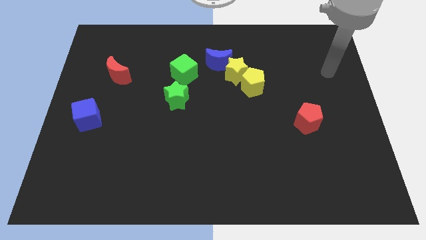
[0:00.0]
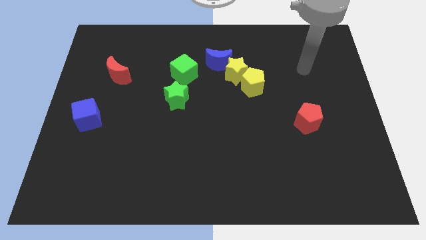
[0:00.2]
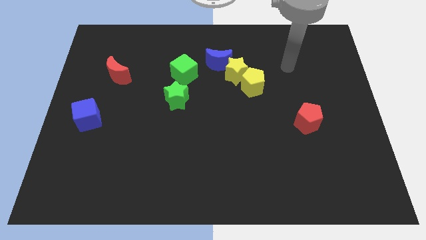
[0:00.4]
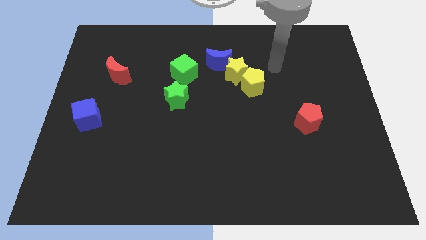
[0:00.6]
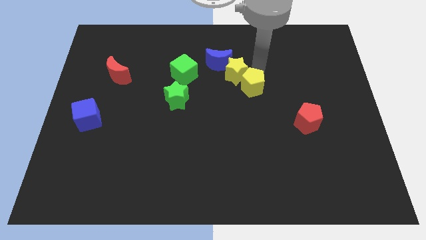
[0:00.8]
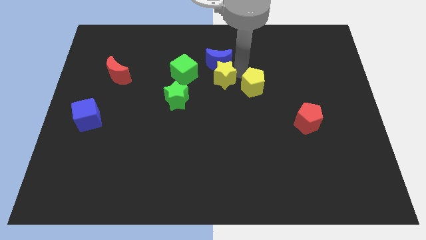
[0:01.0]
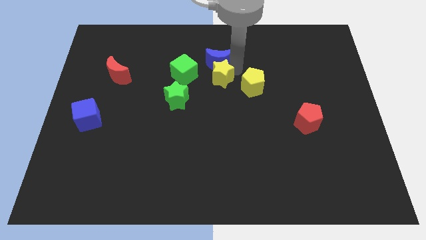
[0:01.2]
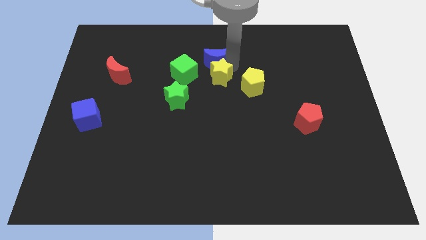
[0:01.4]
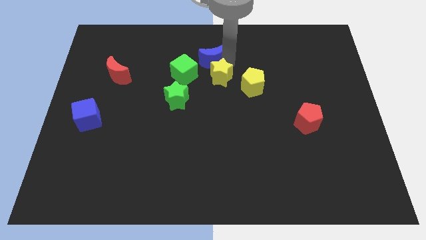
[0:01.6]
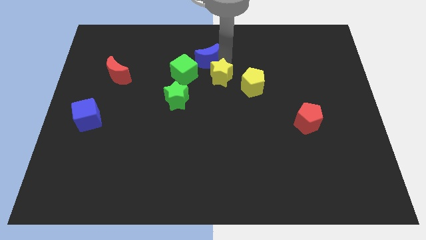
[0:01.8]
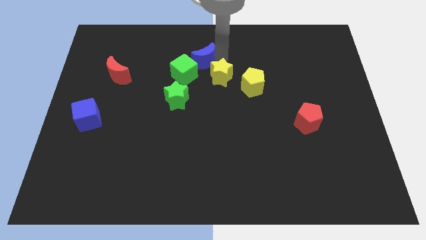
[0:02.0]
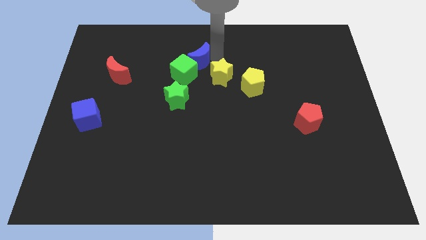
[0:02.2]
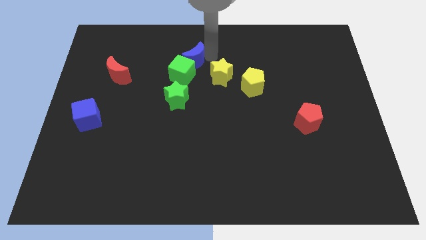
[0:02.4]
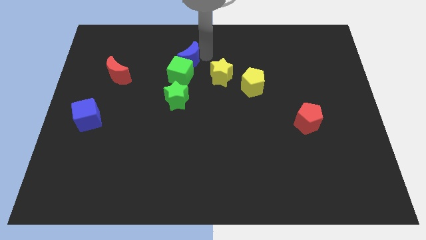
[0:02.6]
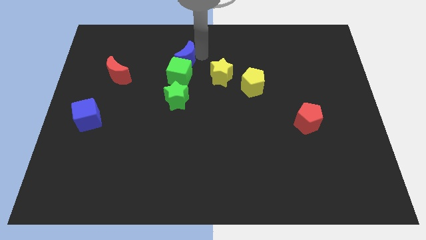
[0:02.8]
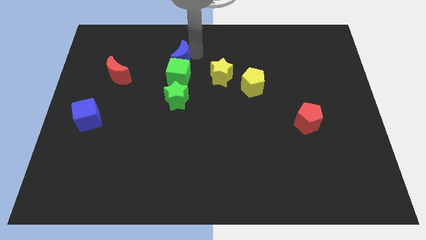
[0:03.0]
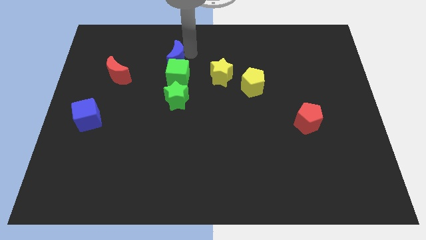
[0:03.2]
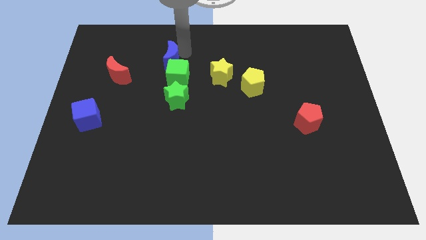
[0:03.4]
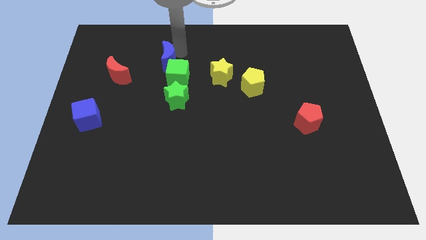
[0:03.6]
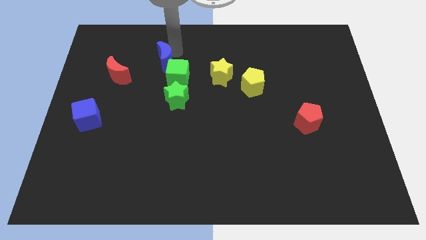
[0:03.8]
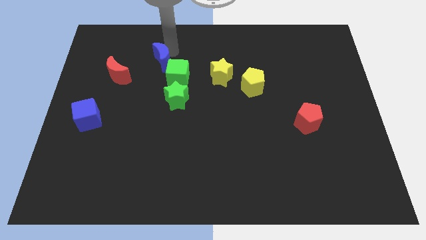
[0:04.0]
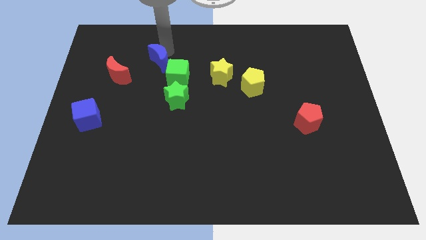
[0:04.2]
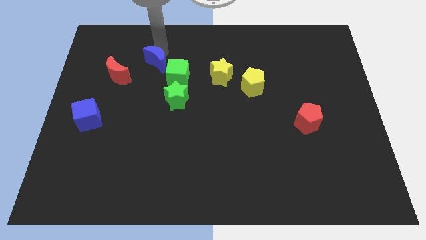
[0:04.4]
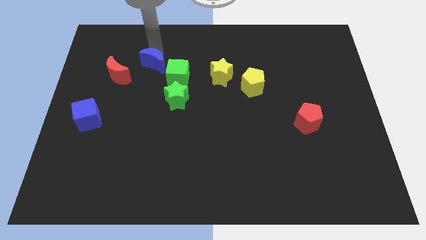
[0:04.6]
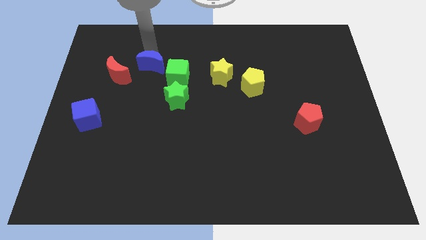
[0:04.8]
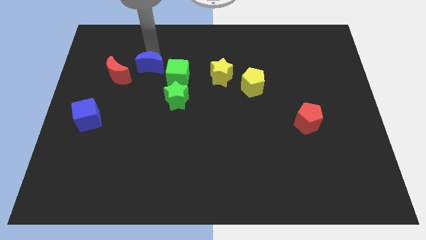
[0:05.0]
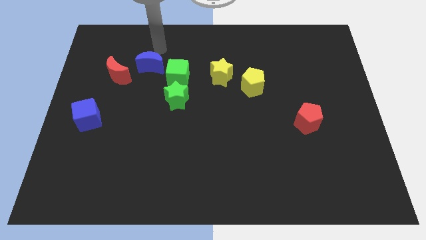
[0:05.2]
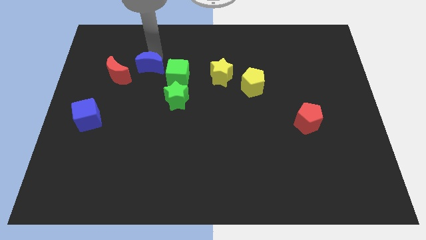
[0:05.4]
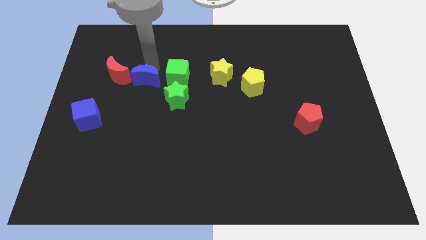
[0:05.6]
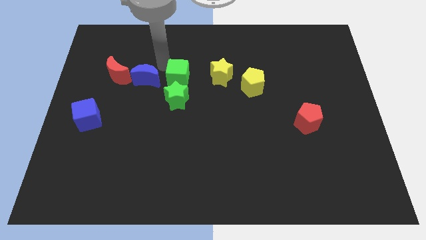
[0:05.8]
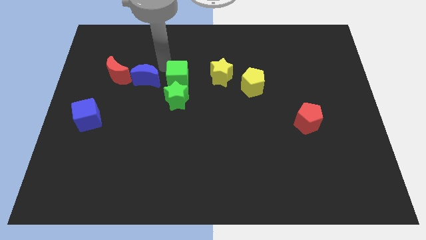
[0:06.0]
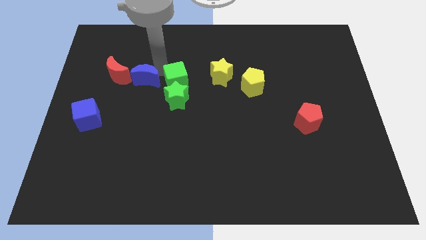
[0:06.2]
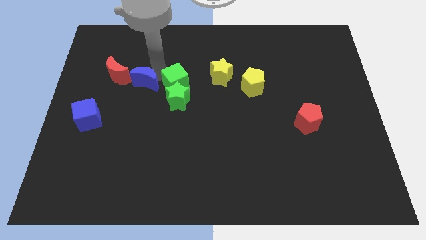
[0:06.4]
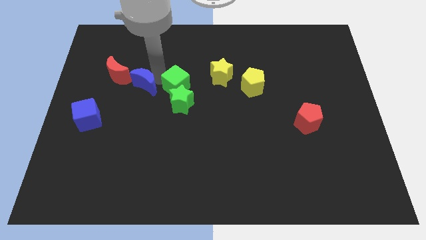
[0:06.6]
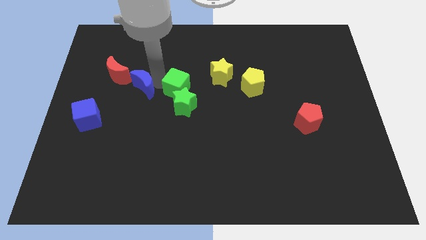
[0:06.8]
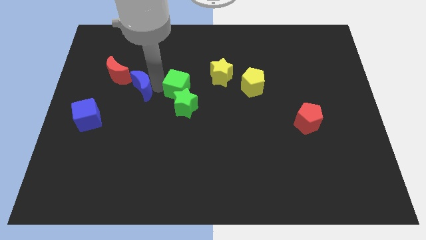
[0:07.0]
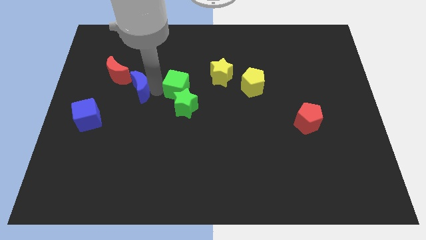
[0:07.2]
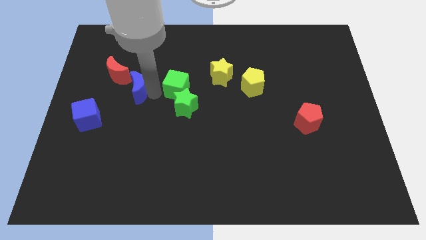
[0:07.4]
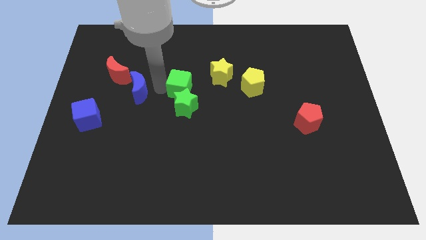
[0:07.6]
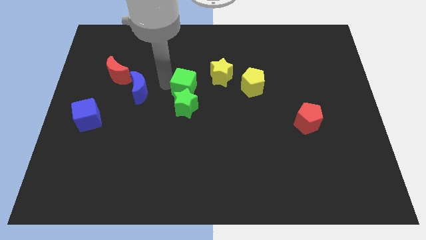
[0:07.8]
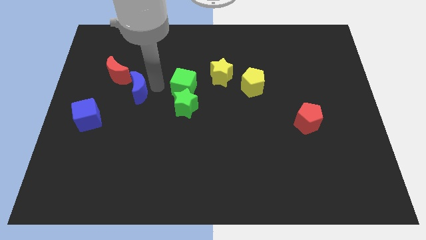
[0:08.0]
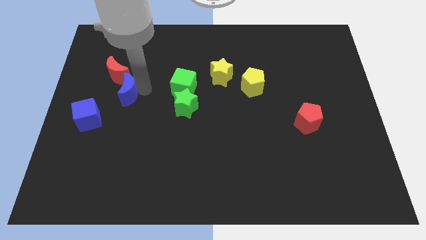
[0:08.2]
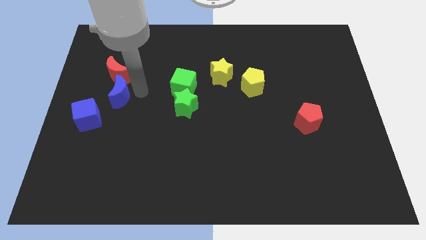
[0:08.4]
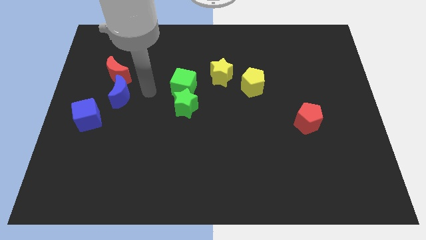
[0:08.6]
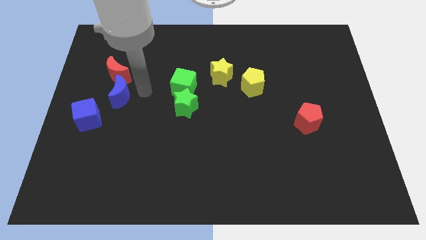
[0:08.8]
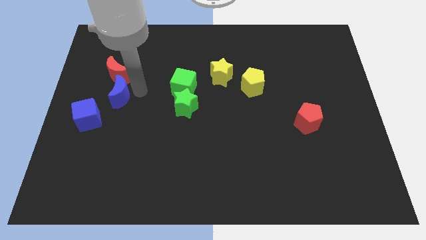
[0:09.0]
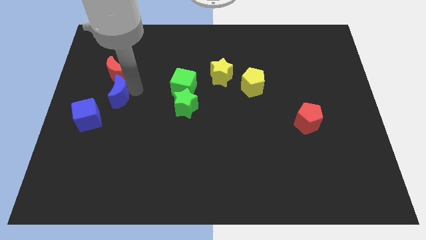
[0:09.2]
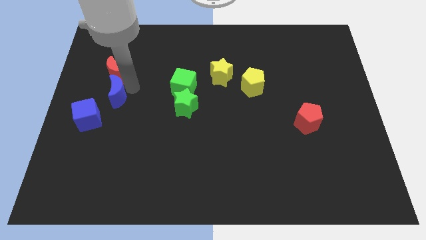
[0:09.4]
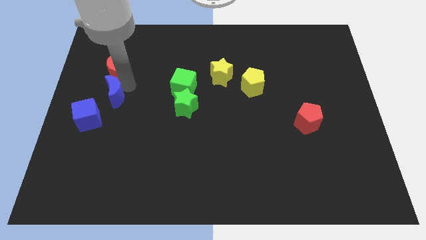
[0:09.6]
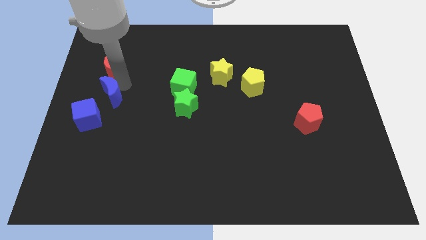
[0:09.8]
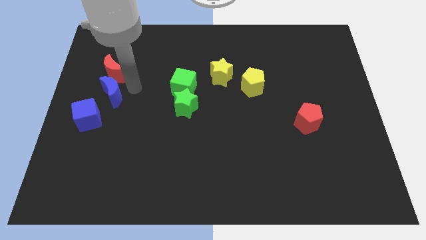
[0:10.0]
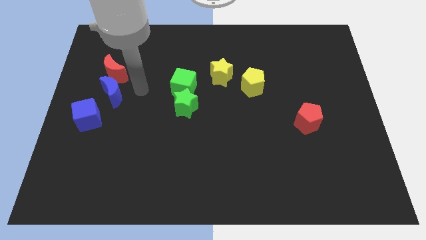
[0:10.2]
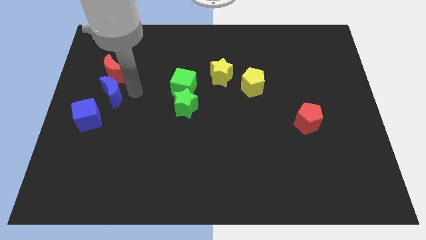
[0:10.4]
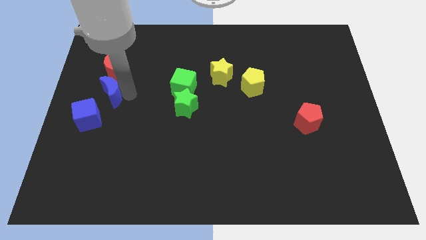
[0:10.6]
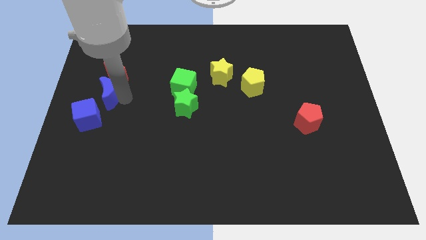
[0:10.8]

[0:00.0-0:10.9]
move the blue moon to the center left

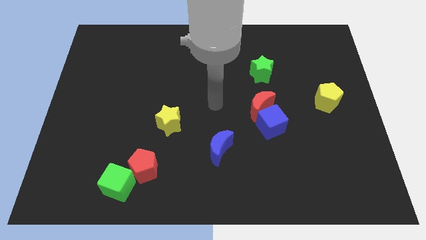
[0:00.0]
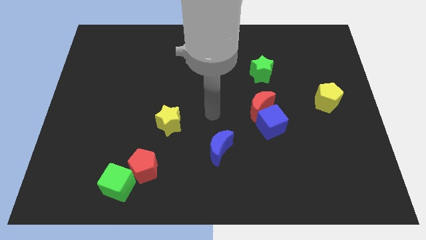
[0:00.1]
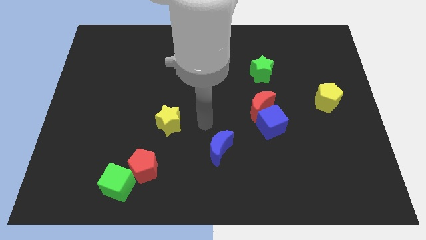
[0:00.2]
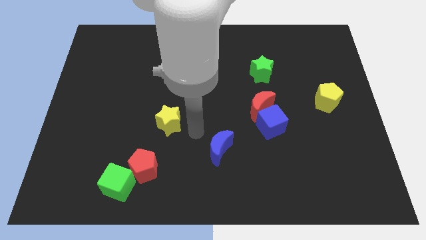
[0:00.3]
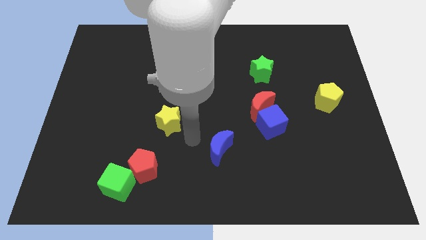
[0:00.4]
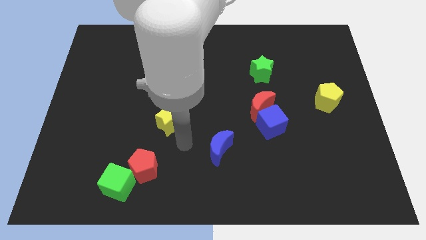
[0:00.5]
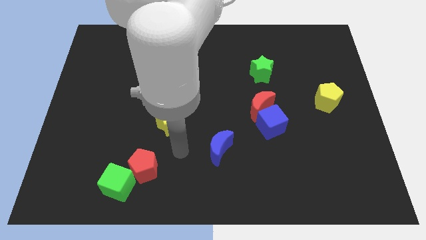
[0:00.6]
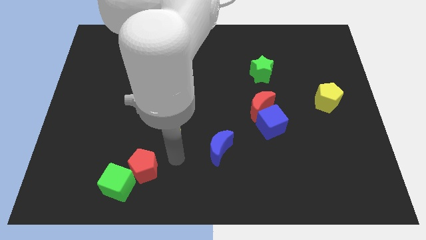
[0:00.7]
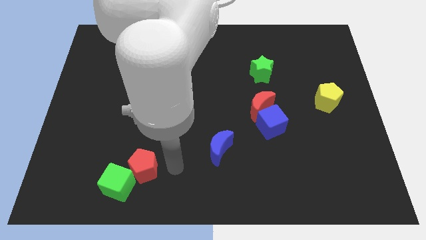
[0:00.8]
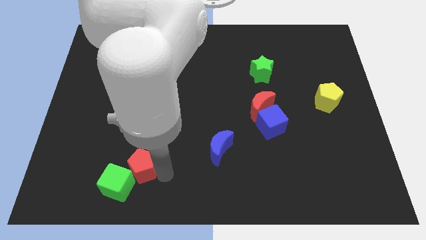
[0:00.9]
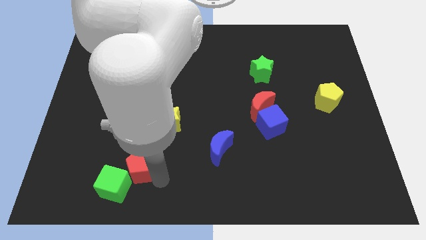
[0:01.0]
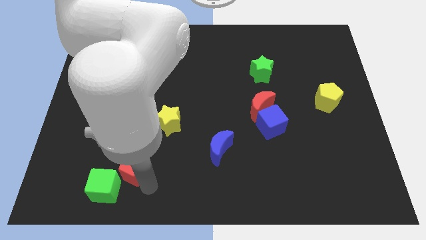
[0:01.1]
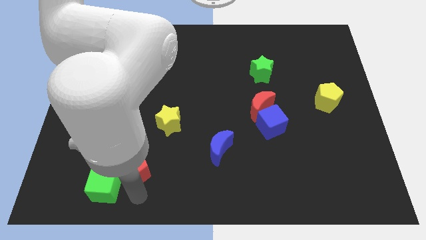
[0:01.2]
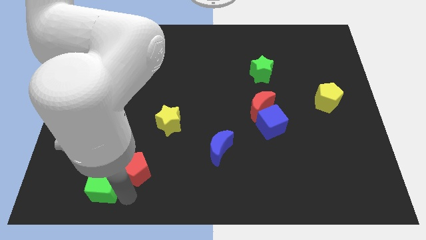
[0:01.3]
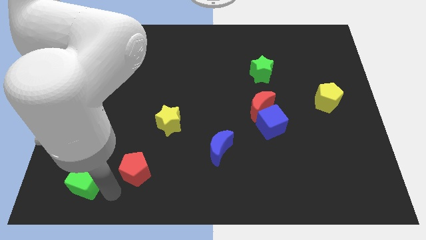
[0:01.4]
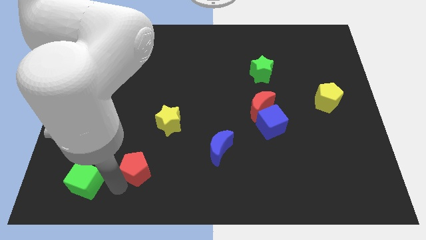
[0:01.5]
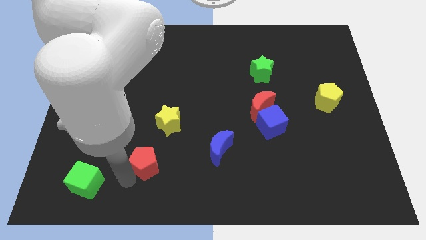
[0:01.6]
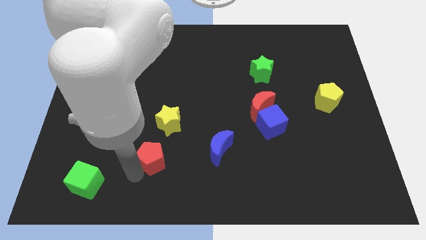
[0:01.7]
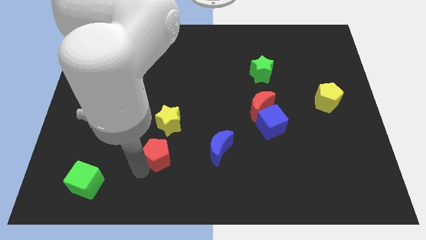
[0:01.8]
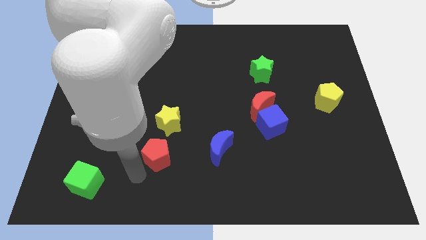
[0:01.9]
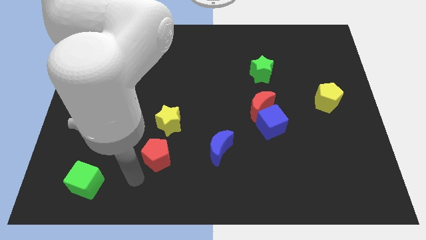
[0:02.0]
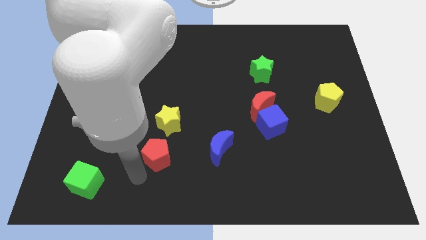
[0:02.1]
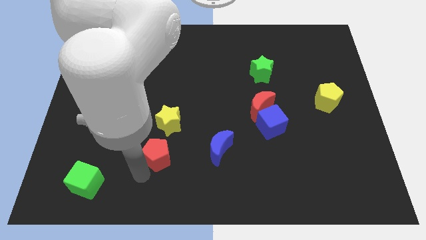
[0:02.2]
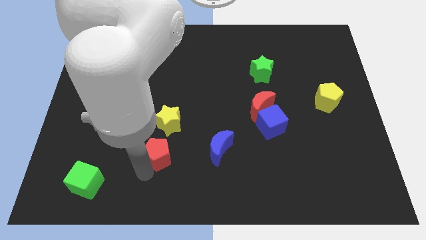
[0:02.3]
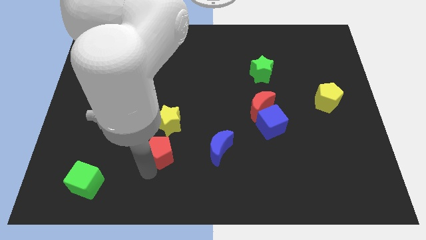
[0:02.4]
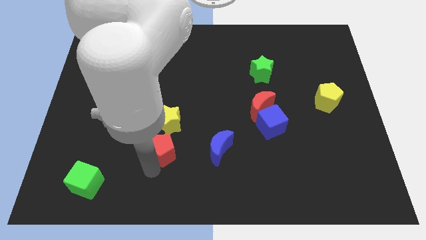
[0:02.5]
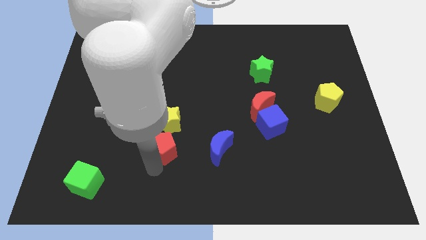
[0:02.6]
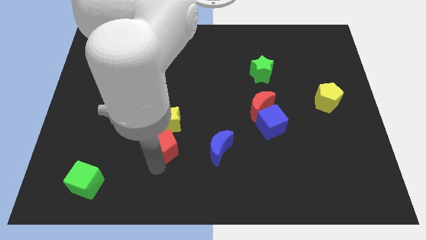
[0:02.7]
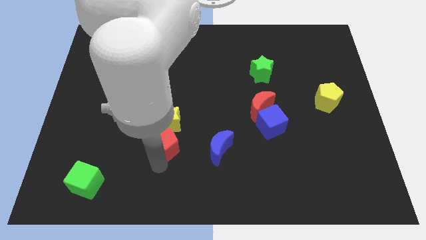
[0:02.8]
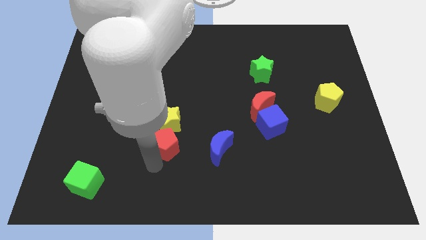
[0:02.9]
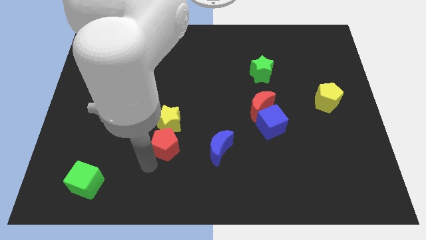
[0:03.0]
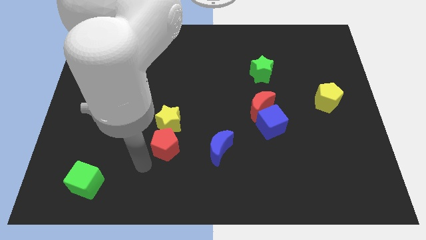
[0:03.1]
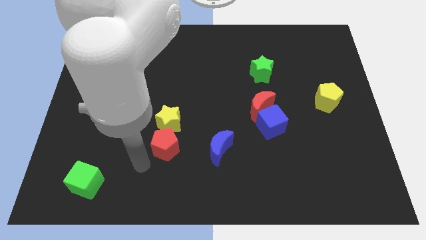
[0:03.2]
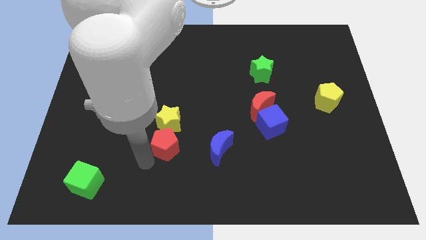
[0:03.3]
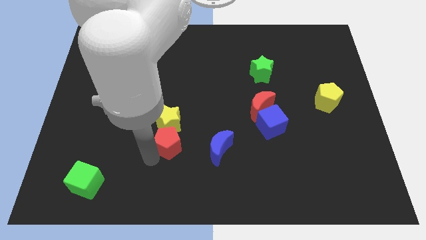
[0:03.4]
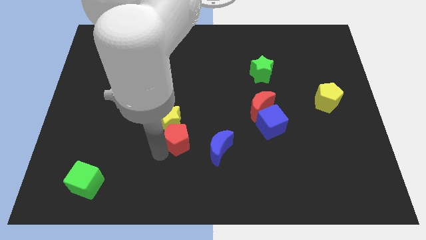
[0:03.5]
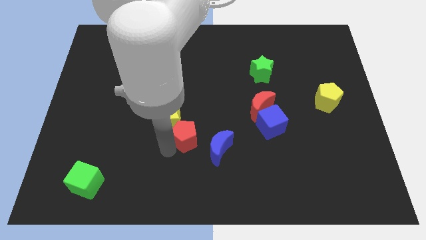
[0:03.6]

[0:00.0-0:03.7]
push the red pentagon to the center of the board
